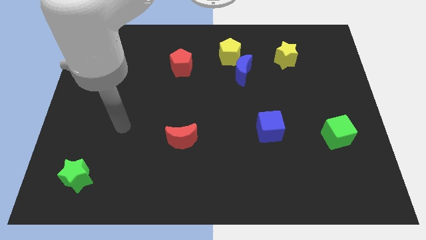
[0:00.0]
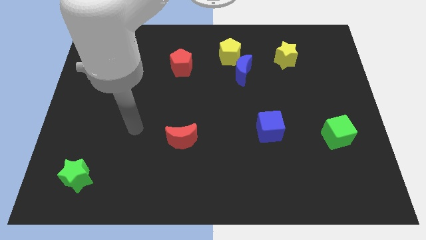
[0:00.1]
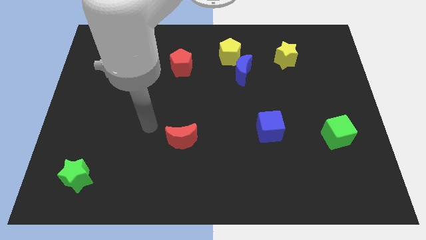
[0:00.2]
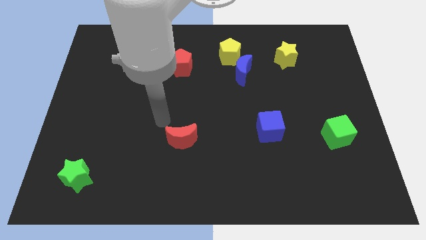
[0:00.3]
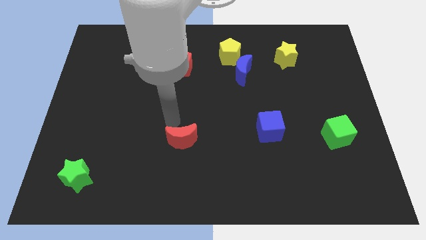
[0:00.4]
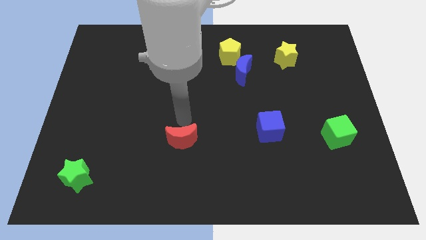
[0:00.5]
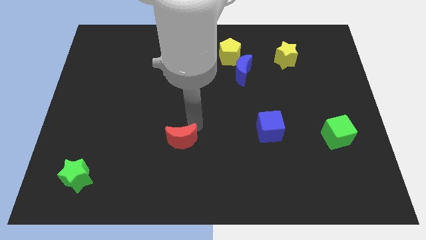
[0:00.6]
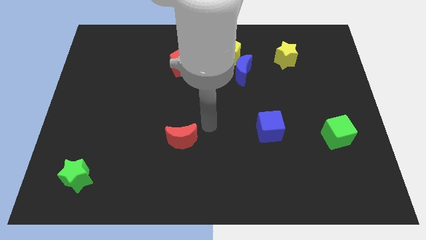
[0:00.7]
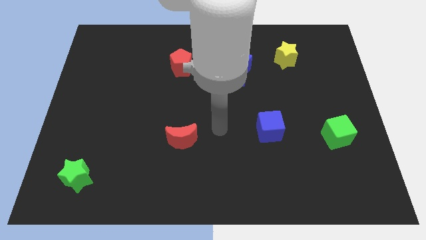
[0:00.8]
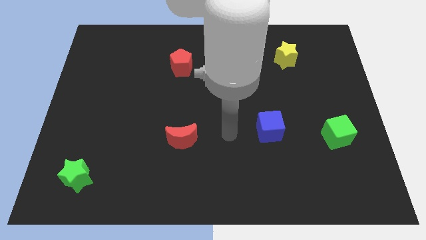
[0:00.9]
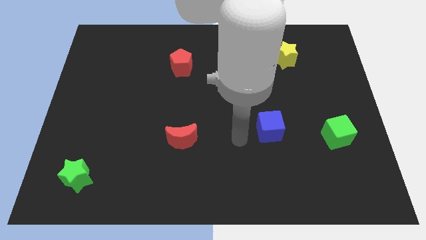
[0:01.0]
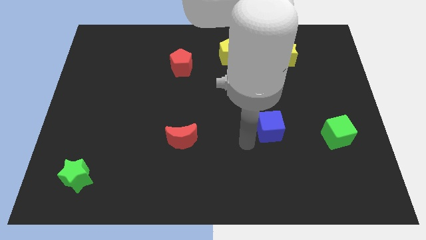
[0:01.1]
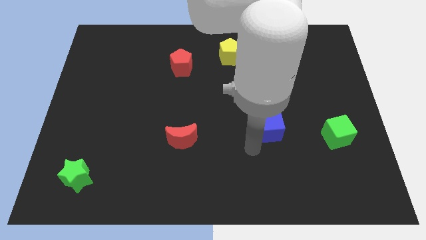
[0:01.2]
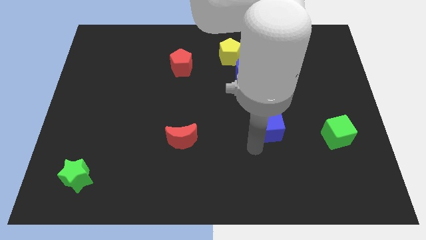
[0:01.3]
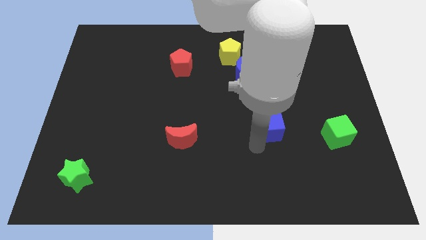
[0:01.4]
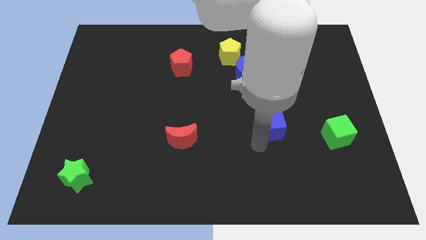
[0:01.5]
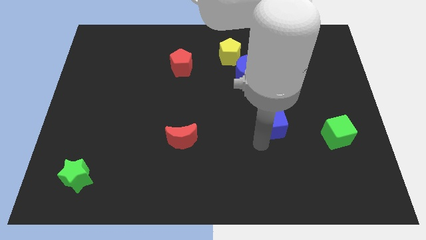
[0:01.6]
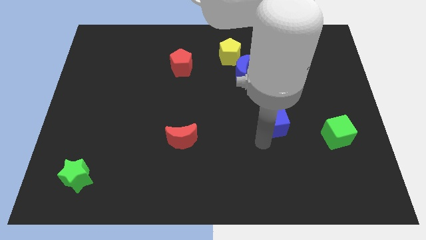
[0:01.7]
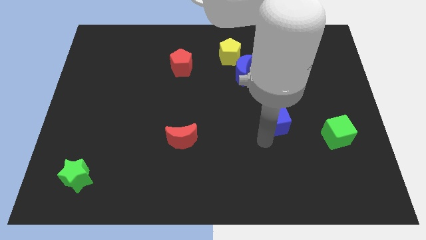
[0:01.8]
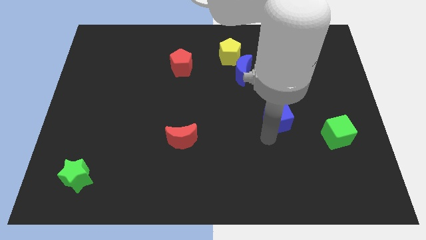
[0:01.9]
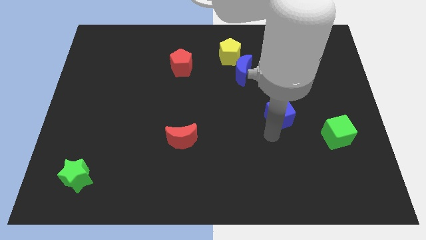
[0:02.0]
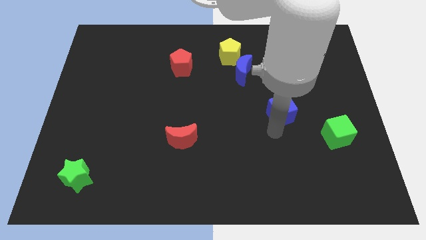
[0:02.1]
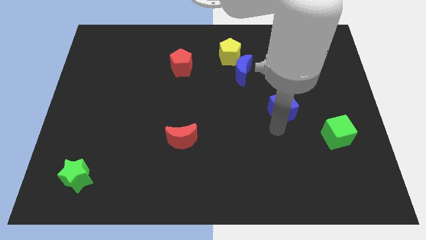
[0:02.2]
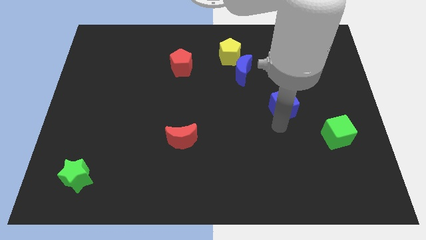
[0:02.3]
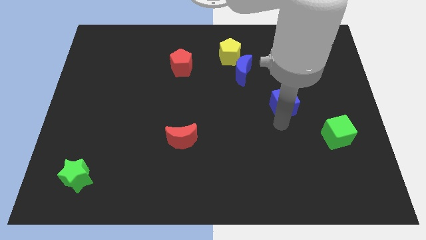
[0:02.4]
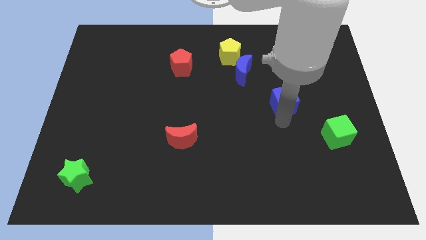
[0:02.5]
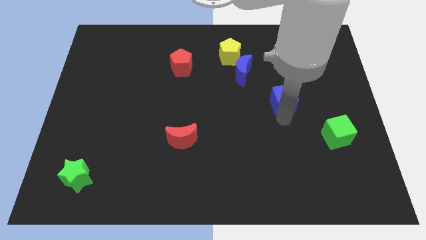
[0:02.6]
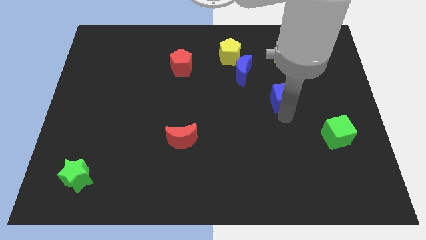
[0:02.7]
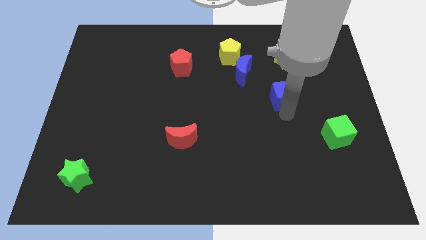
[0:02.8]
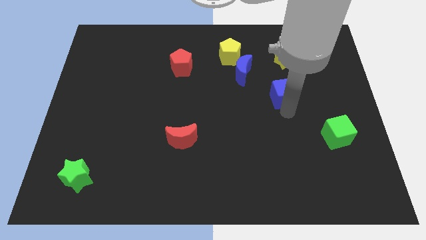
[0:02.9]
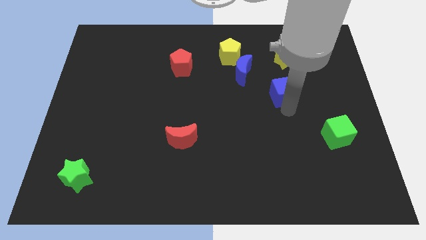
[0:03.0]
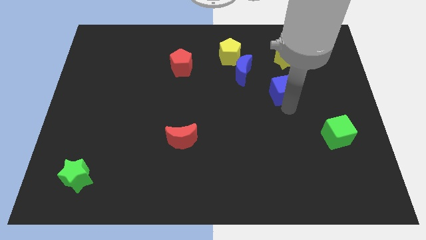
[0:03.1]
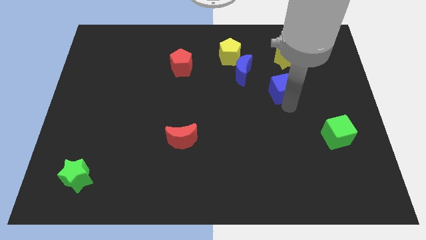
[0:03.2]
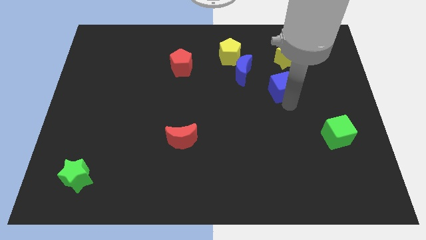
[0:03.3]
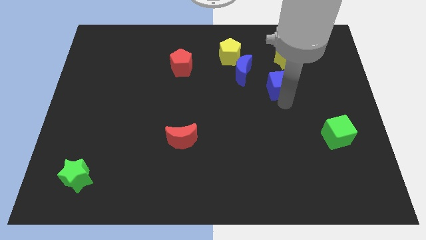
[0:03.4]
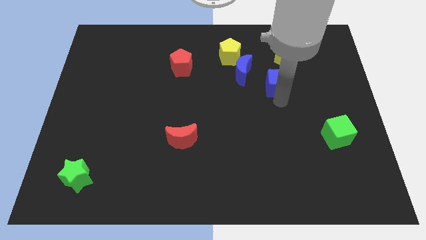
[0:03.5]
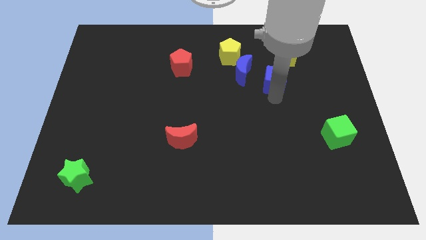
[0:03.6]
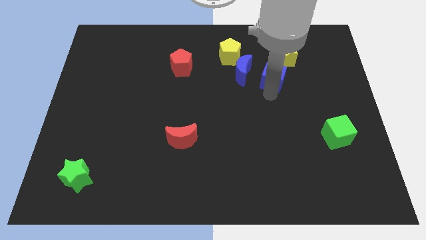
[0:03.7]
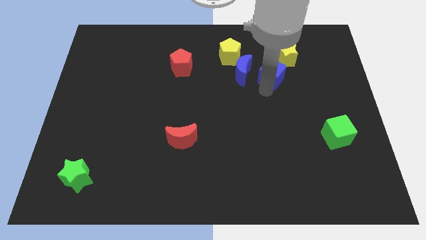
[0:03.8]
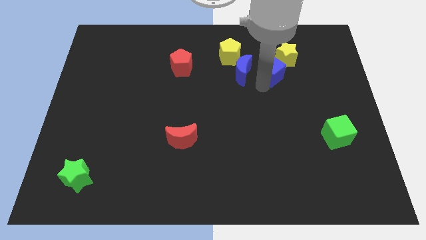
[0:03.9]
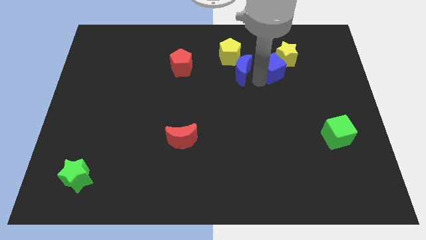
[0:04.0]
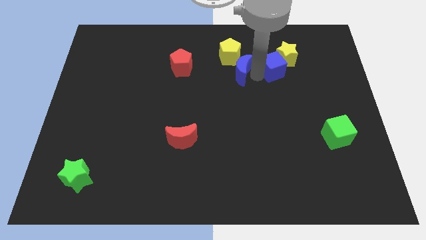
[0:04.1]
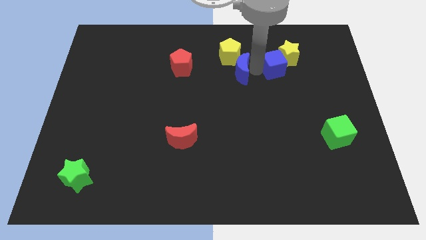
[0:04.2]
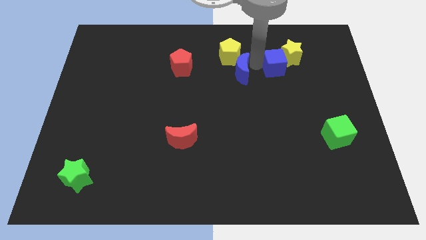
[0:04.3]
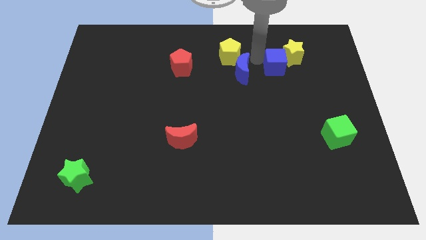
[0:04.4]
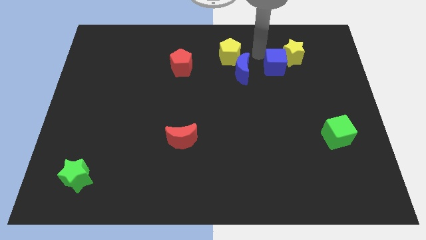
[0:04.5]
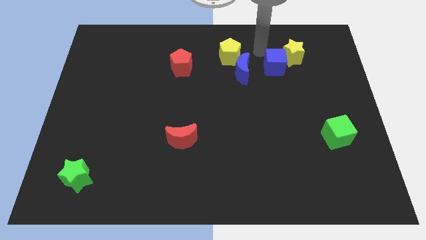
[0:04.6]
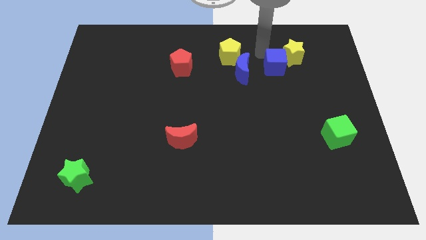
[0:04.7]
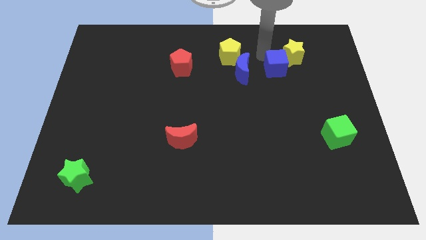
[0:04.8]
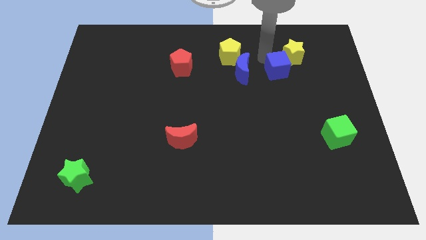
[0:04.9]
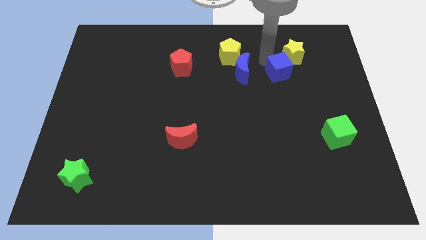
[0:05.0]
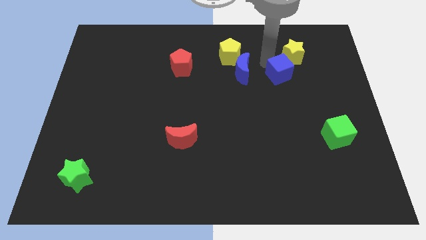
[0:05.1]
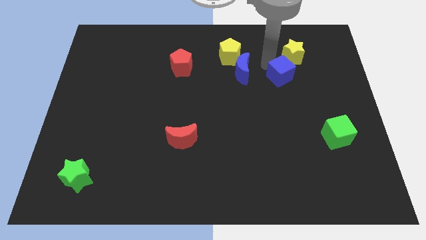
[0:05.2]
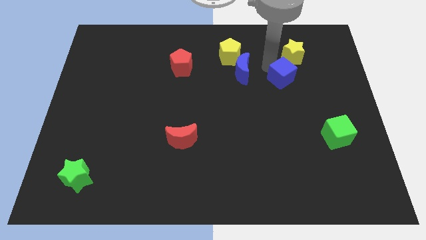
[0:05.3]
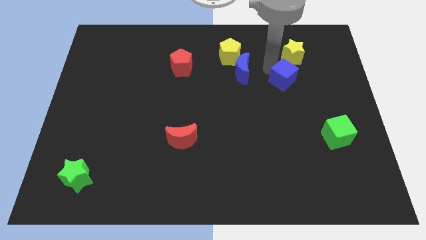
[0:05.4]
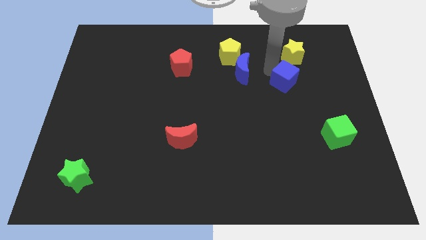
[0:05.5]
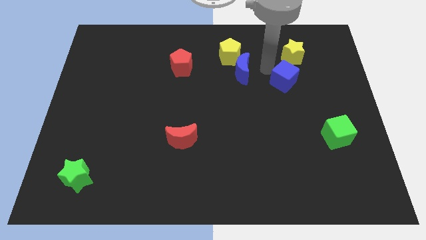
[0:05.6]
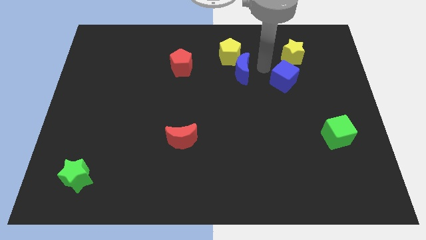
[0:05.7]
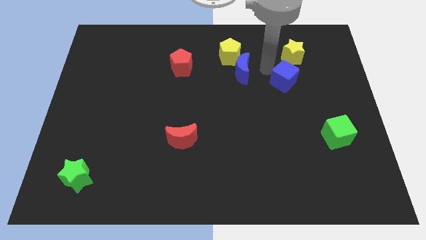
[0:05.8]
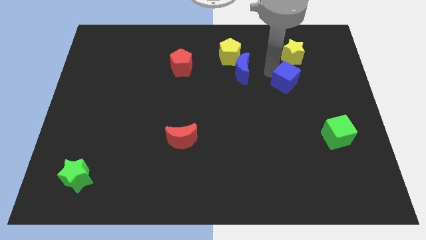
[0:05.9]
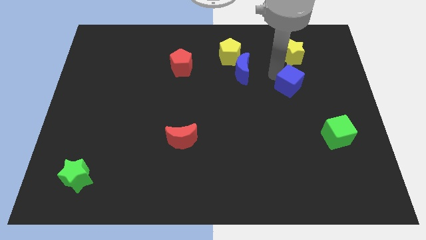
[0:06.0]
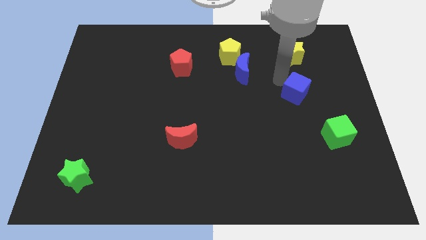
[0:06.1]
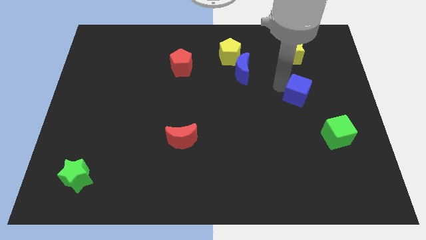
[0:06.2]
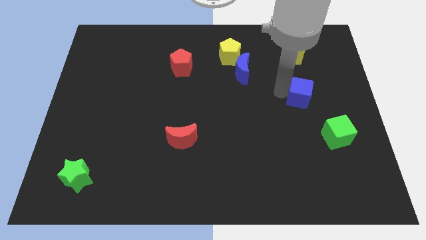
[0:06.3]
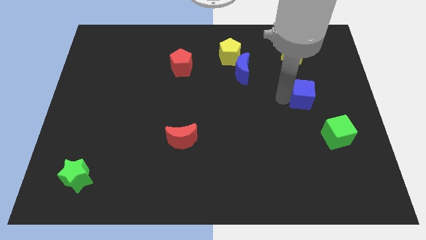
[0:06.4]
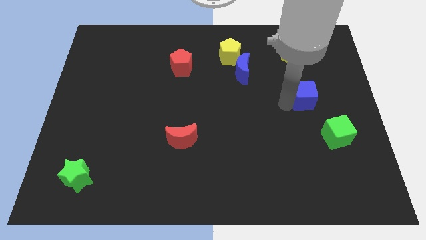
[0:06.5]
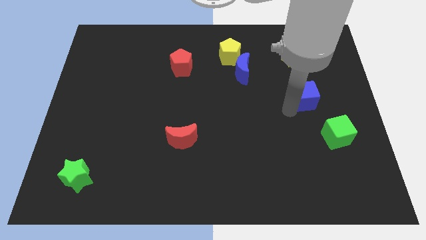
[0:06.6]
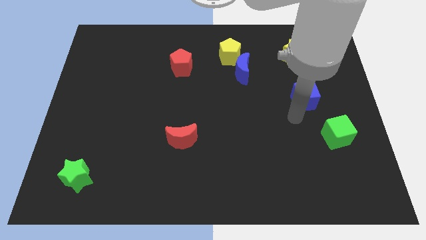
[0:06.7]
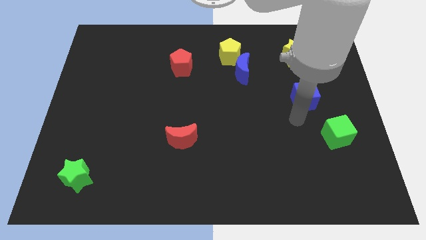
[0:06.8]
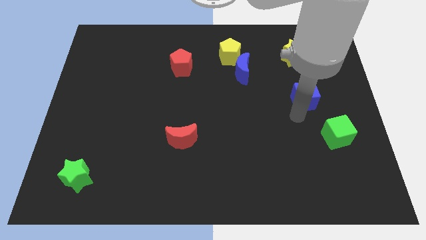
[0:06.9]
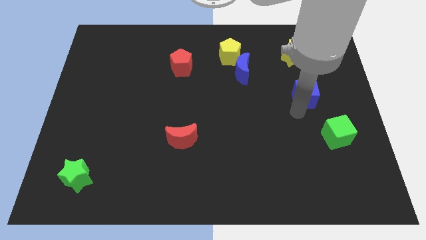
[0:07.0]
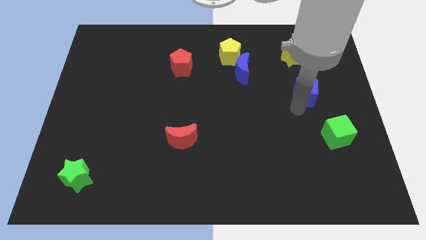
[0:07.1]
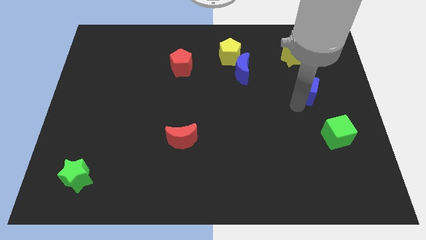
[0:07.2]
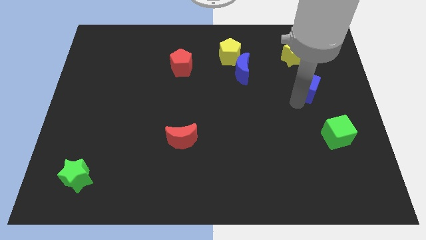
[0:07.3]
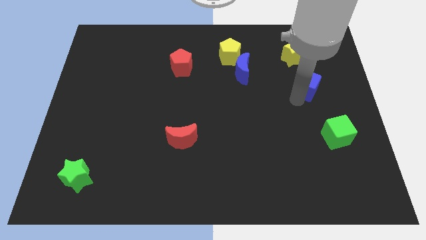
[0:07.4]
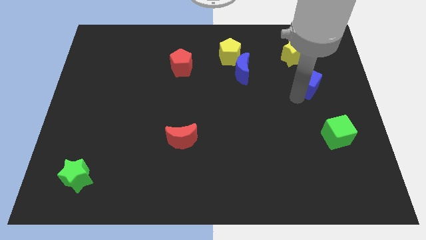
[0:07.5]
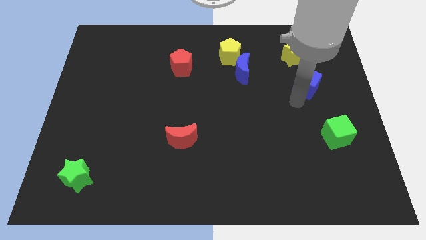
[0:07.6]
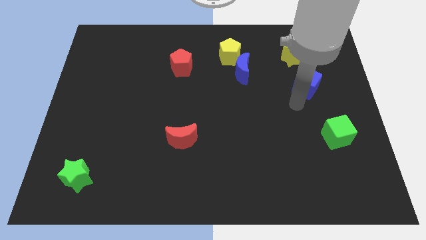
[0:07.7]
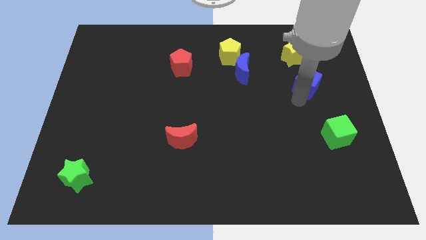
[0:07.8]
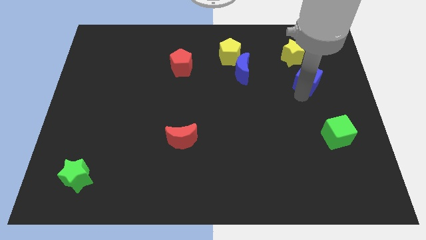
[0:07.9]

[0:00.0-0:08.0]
move the blue cube to the bottom right of the yellow star
